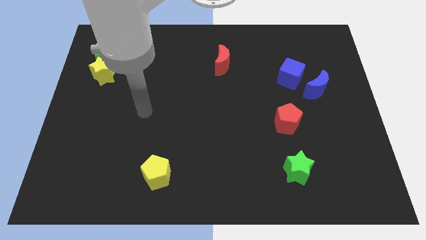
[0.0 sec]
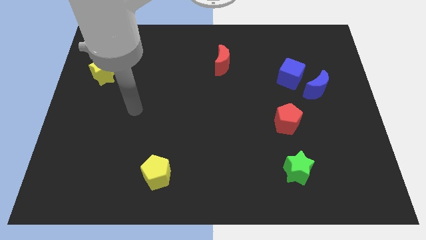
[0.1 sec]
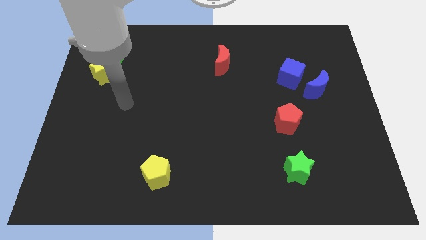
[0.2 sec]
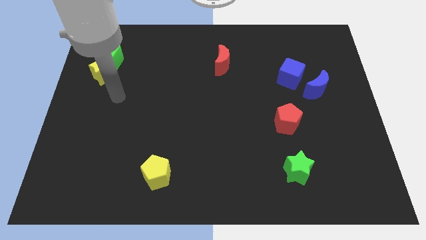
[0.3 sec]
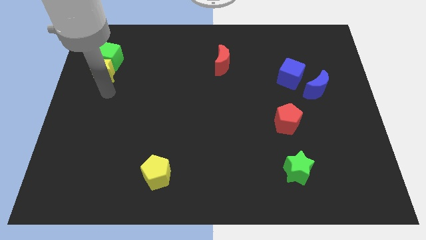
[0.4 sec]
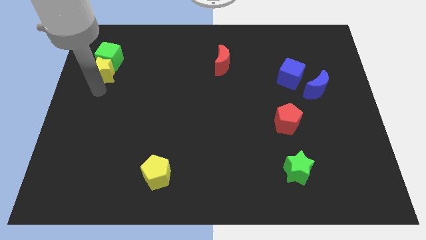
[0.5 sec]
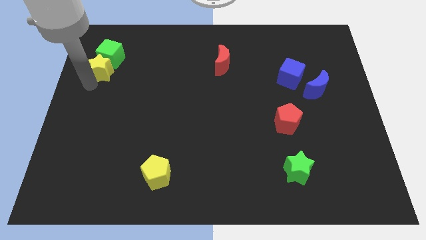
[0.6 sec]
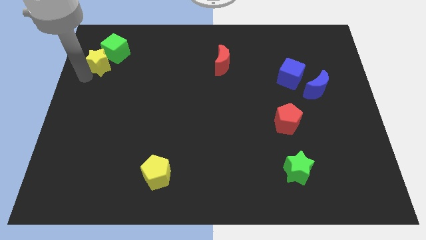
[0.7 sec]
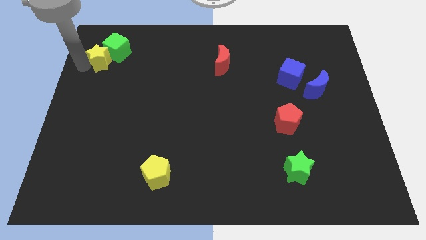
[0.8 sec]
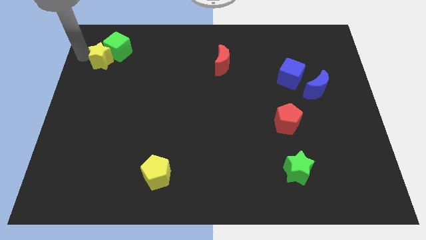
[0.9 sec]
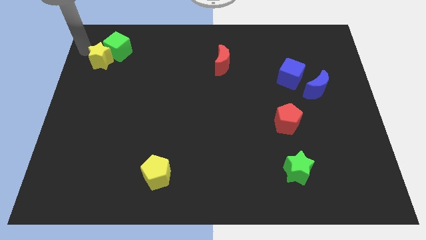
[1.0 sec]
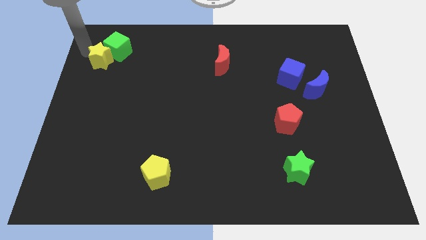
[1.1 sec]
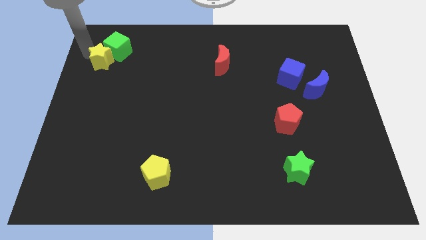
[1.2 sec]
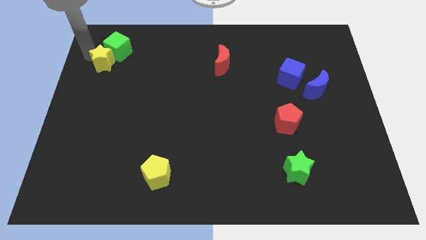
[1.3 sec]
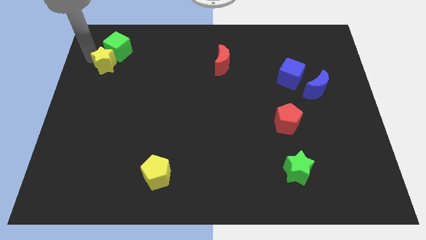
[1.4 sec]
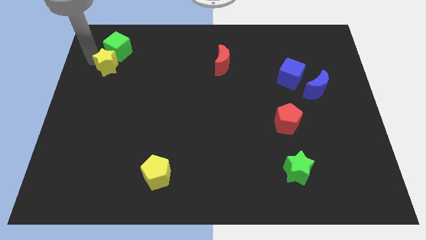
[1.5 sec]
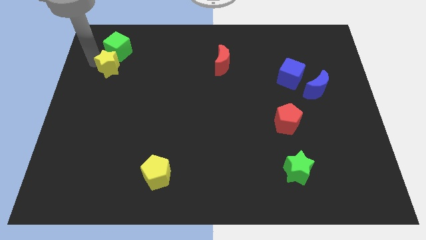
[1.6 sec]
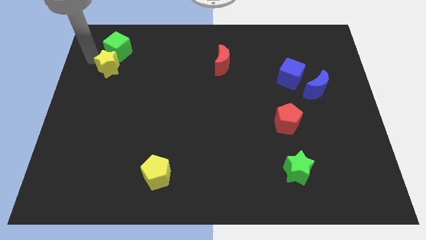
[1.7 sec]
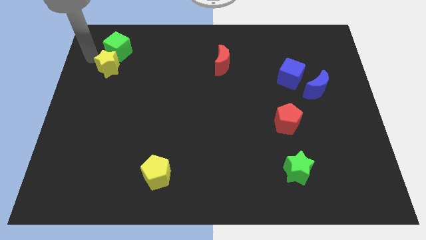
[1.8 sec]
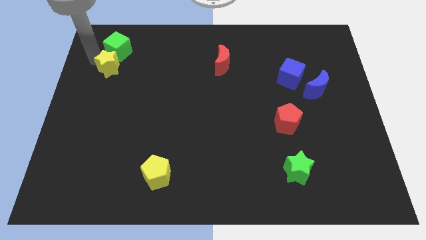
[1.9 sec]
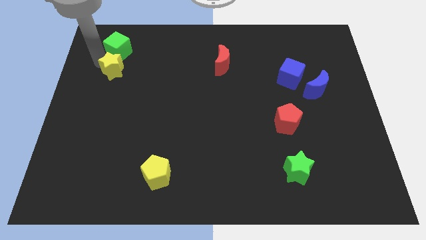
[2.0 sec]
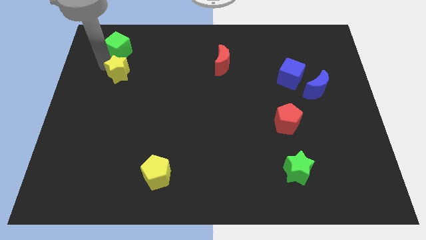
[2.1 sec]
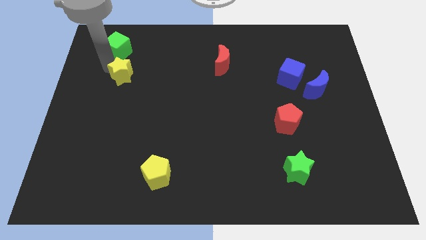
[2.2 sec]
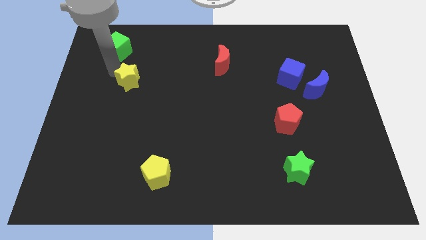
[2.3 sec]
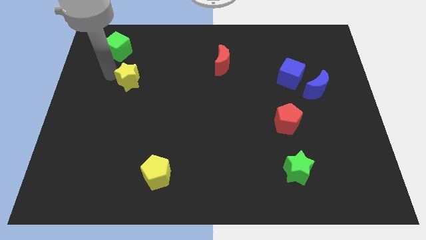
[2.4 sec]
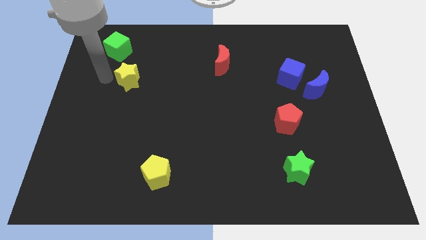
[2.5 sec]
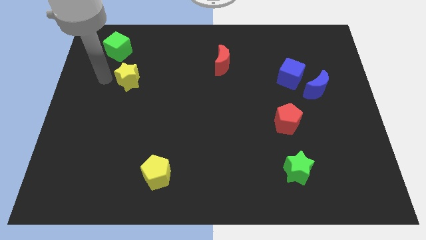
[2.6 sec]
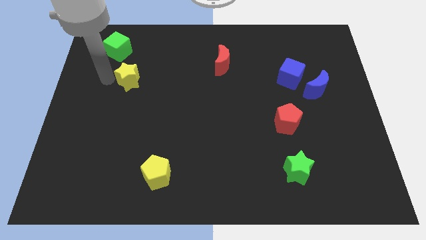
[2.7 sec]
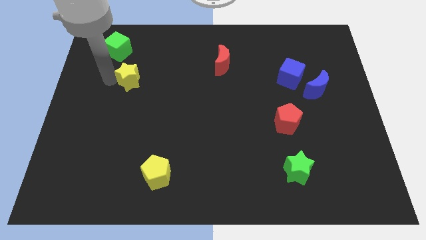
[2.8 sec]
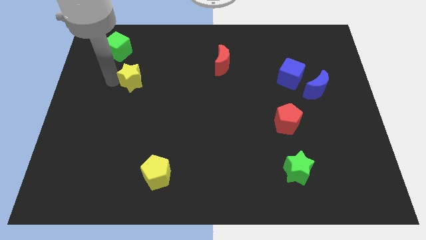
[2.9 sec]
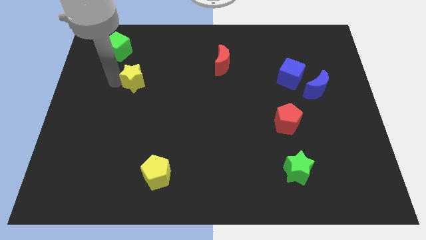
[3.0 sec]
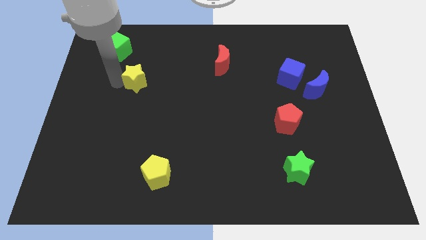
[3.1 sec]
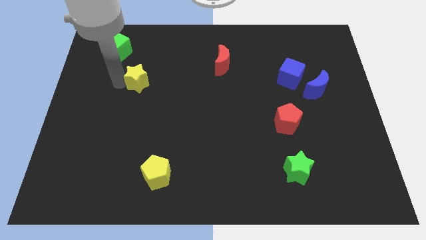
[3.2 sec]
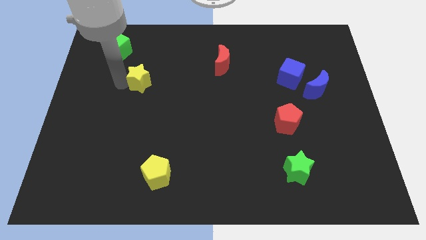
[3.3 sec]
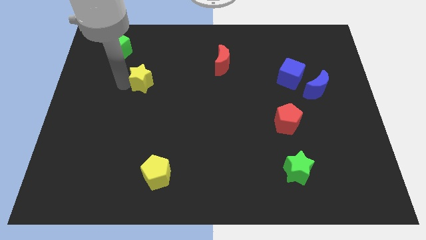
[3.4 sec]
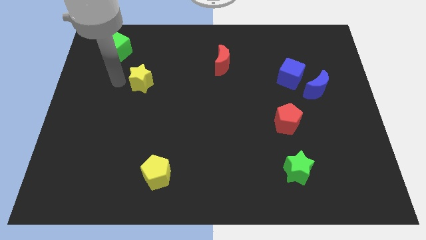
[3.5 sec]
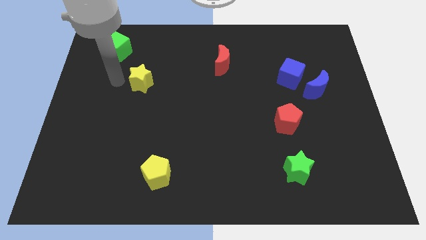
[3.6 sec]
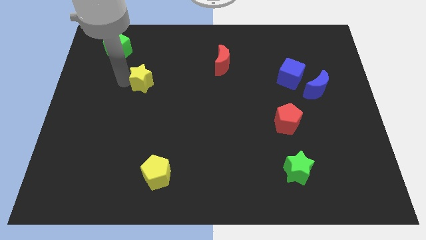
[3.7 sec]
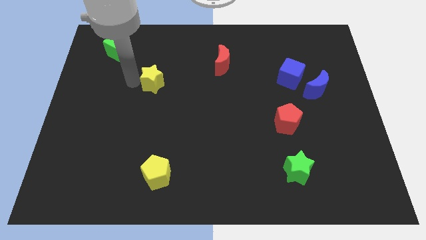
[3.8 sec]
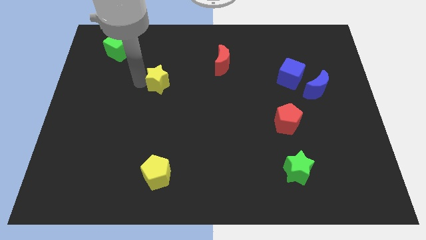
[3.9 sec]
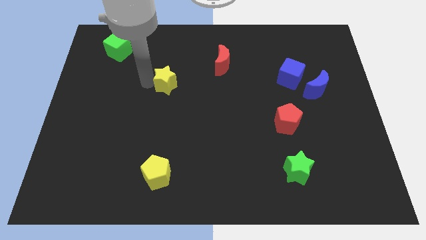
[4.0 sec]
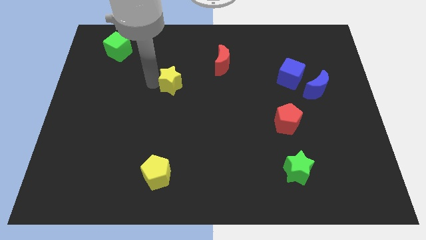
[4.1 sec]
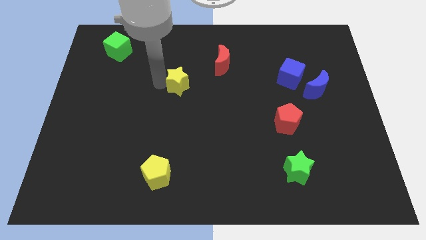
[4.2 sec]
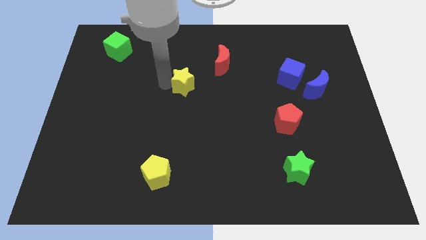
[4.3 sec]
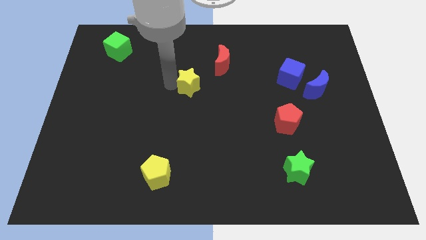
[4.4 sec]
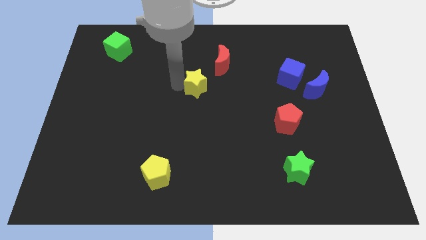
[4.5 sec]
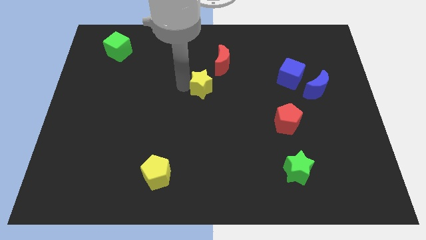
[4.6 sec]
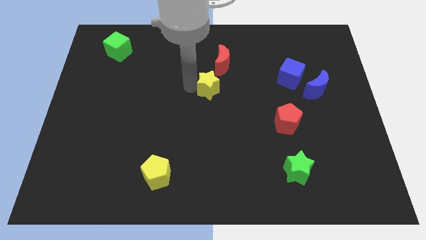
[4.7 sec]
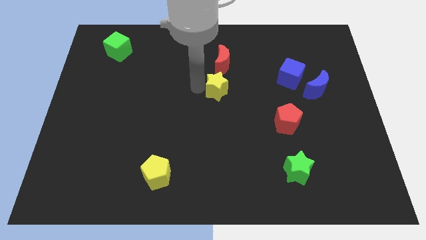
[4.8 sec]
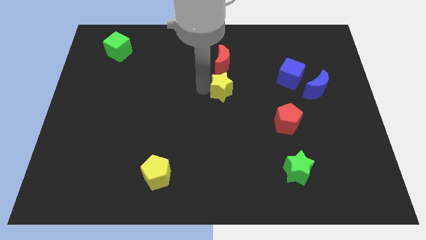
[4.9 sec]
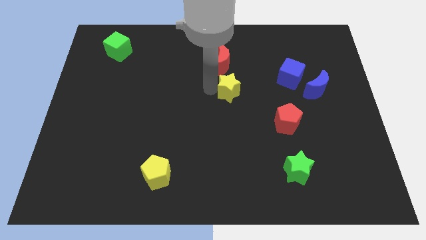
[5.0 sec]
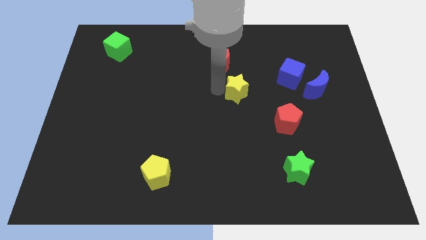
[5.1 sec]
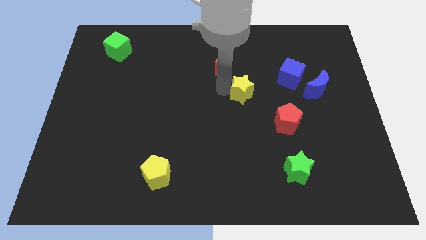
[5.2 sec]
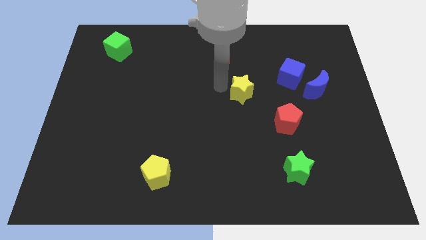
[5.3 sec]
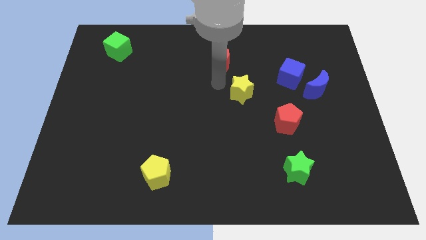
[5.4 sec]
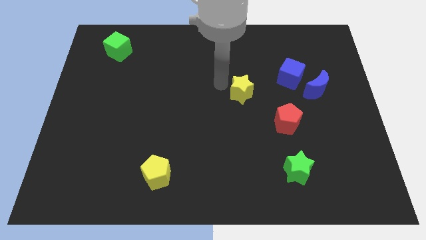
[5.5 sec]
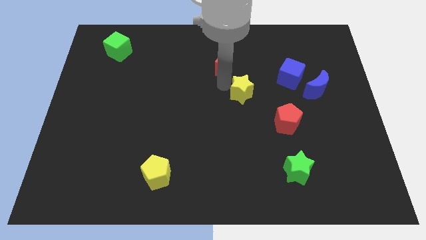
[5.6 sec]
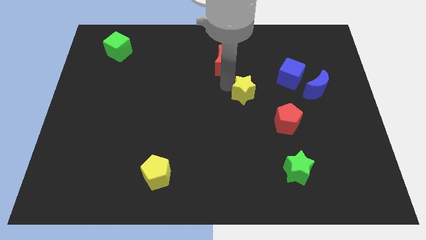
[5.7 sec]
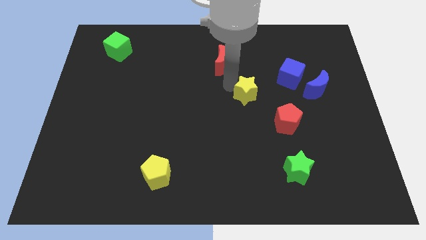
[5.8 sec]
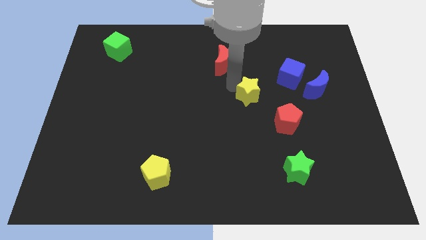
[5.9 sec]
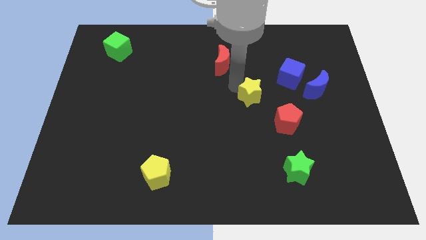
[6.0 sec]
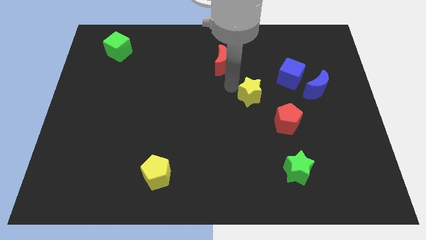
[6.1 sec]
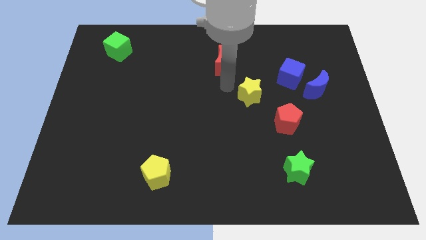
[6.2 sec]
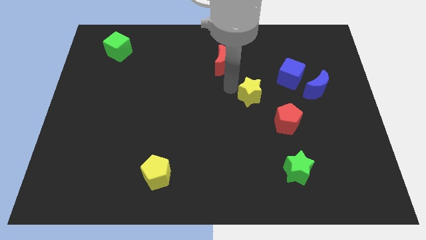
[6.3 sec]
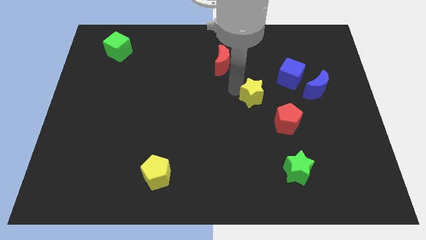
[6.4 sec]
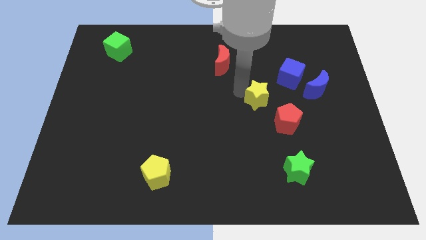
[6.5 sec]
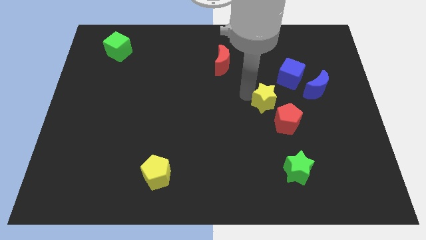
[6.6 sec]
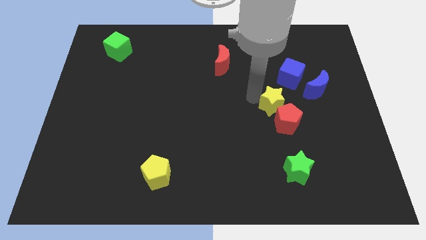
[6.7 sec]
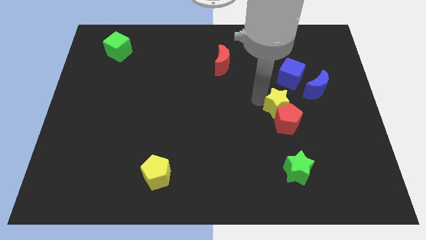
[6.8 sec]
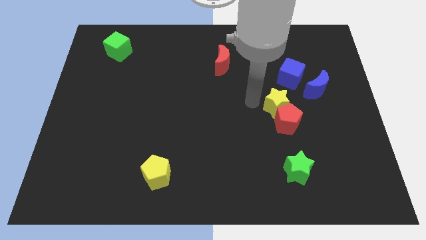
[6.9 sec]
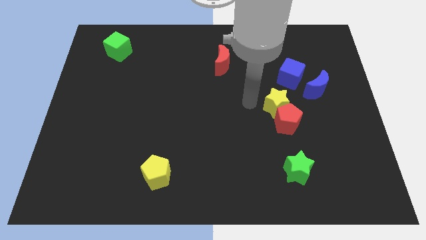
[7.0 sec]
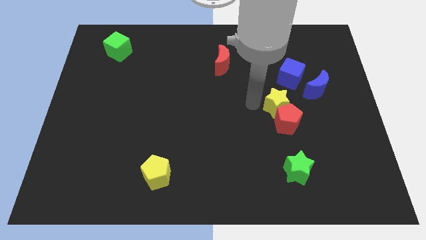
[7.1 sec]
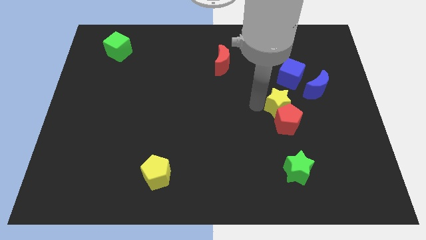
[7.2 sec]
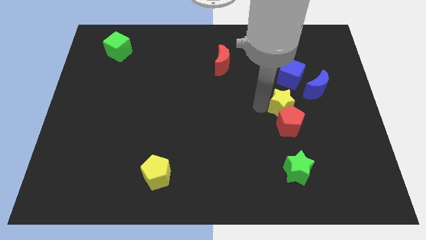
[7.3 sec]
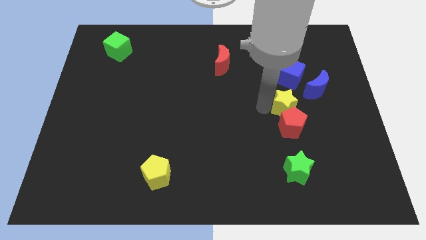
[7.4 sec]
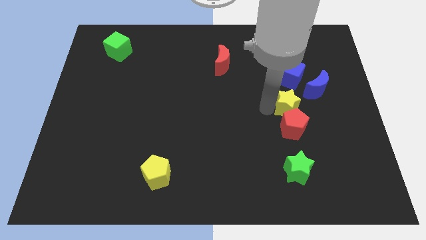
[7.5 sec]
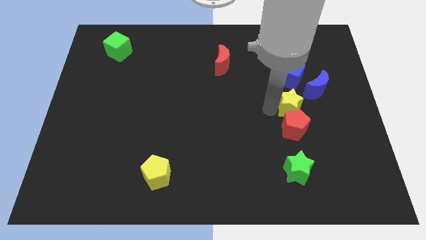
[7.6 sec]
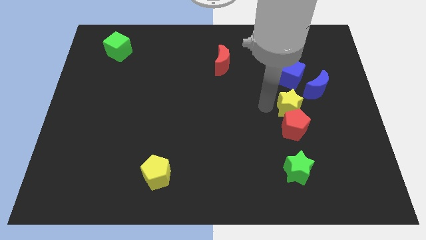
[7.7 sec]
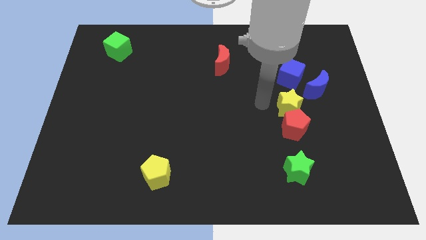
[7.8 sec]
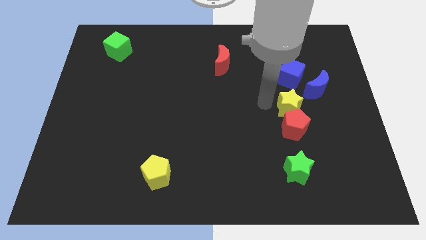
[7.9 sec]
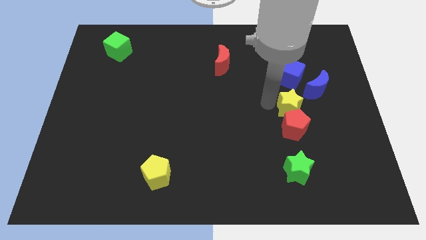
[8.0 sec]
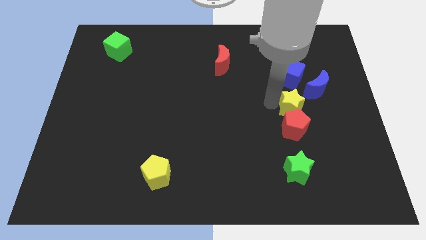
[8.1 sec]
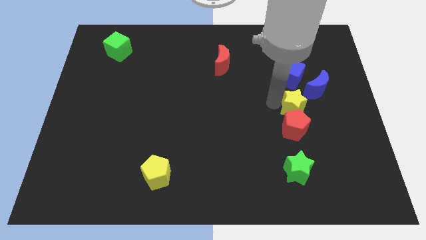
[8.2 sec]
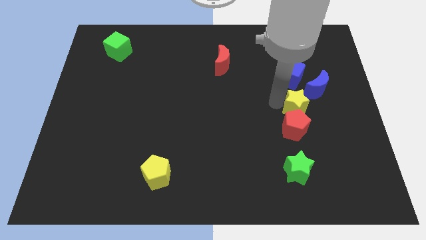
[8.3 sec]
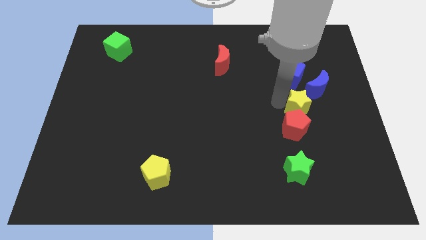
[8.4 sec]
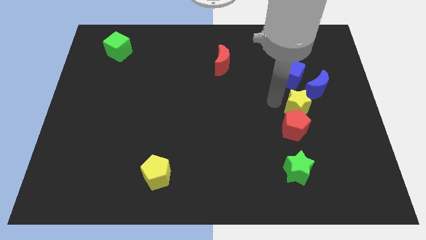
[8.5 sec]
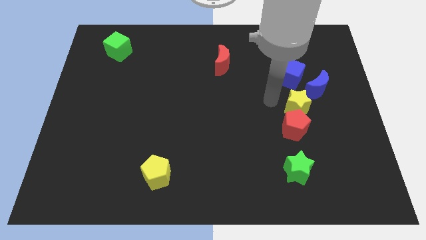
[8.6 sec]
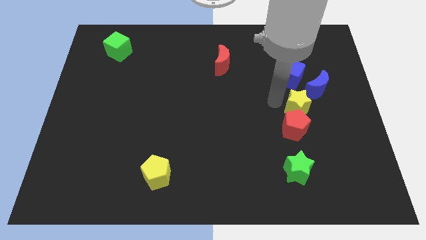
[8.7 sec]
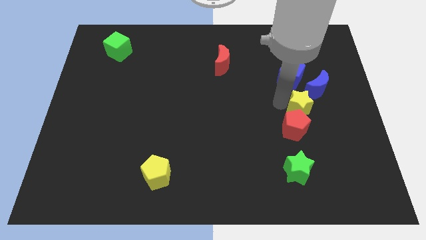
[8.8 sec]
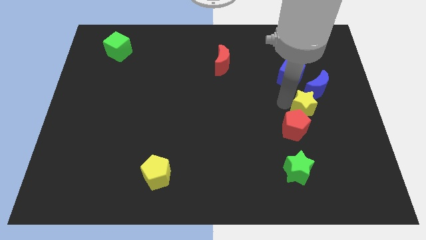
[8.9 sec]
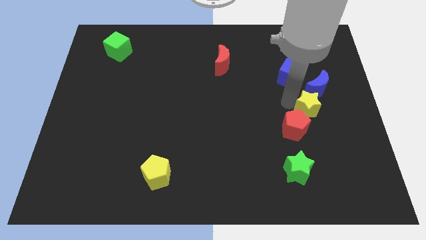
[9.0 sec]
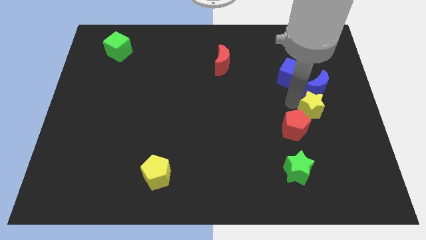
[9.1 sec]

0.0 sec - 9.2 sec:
push the yellow star to the right side of the red pentagon
